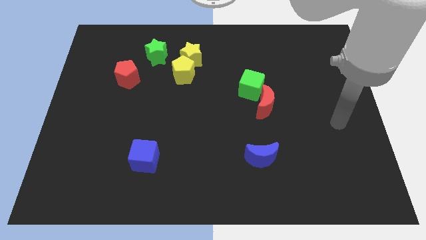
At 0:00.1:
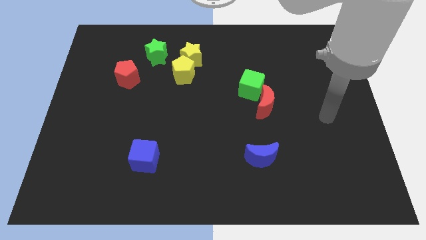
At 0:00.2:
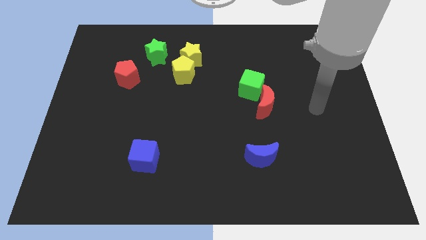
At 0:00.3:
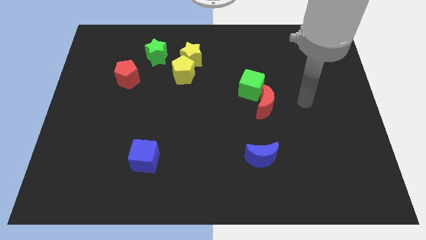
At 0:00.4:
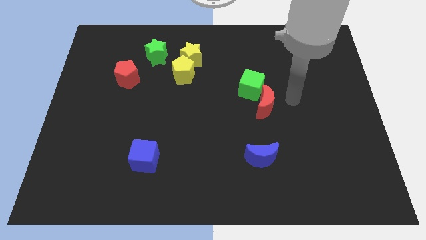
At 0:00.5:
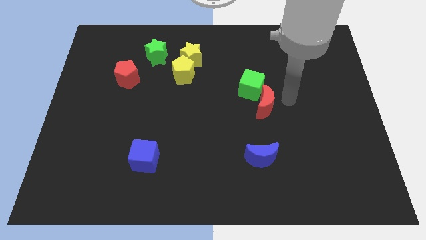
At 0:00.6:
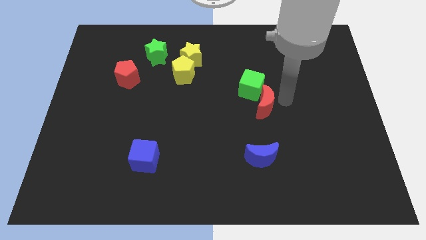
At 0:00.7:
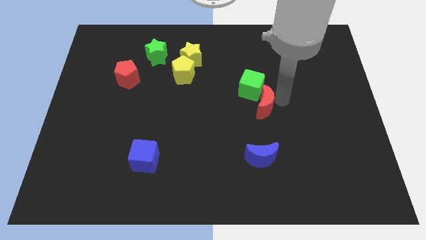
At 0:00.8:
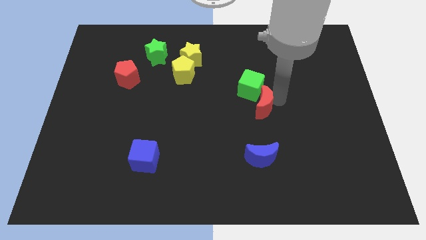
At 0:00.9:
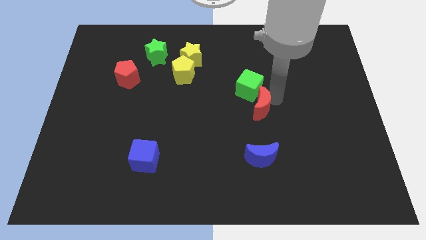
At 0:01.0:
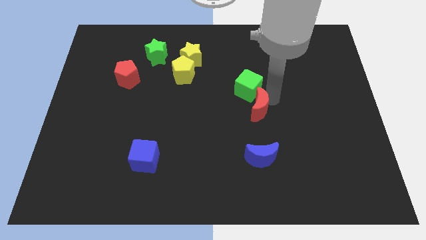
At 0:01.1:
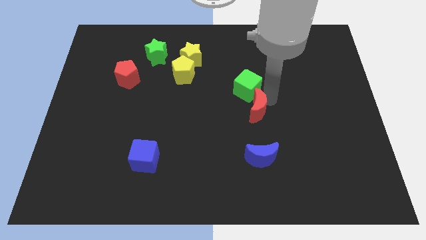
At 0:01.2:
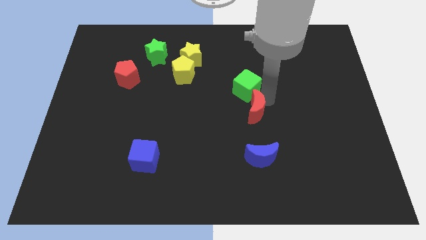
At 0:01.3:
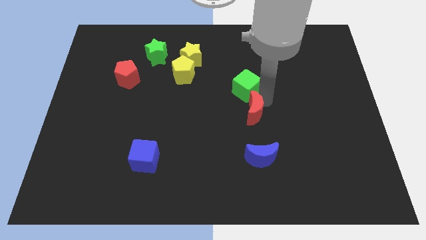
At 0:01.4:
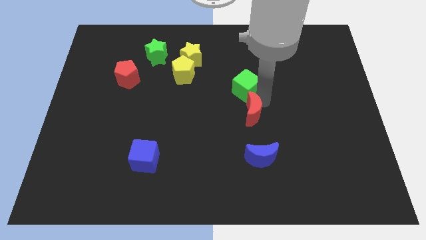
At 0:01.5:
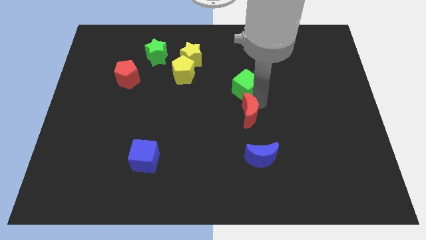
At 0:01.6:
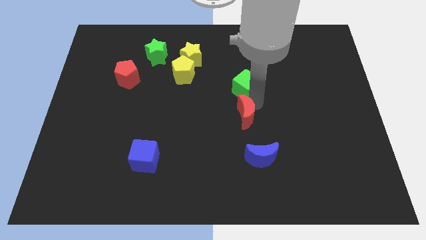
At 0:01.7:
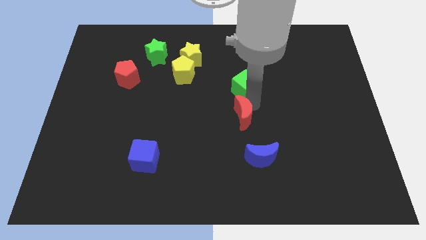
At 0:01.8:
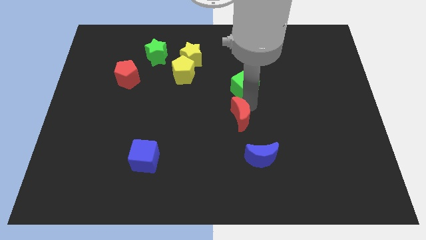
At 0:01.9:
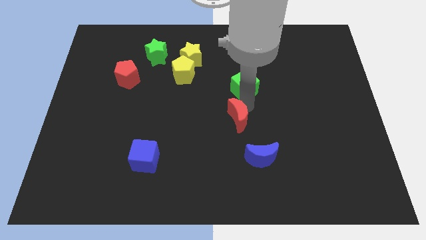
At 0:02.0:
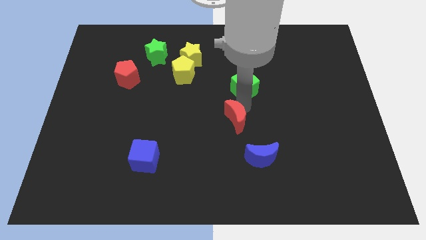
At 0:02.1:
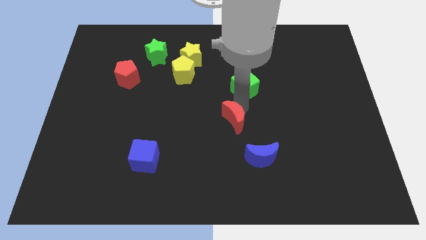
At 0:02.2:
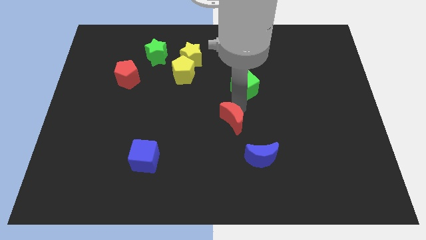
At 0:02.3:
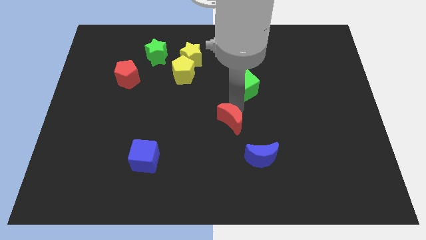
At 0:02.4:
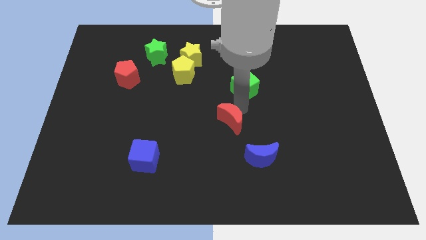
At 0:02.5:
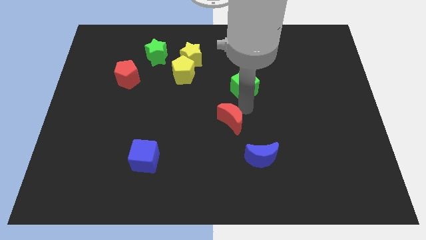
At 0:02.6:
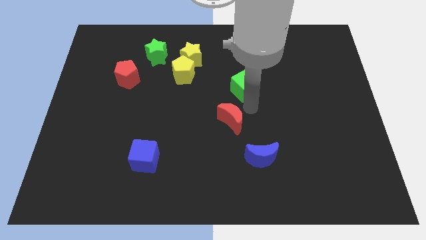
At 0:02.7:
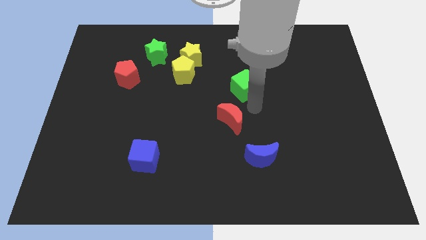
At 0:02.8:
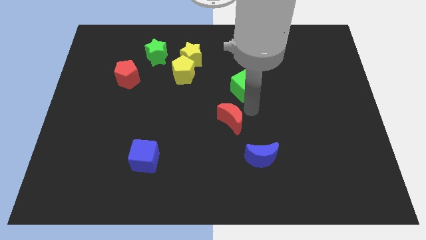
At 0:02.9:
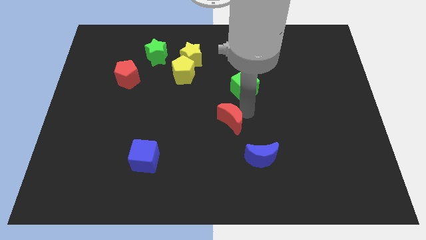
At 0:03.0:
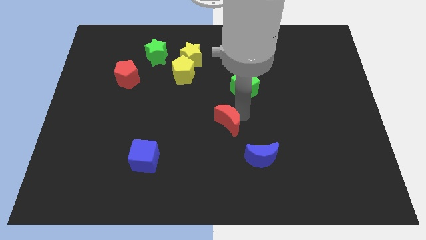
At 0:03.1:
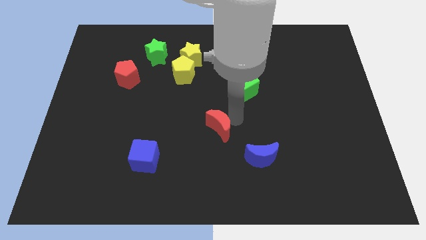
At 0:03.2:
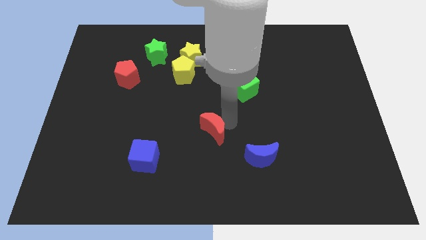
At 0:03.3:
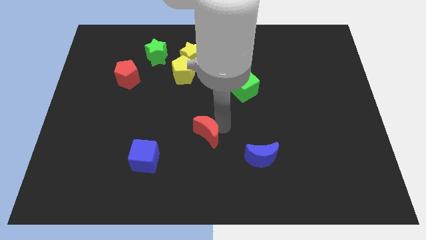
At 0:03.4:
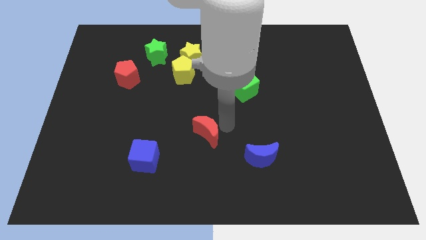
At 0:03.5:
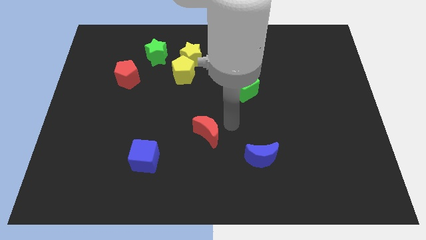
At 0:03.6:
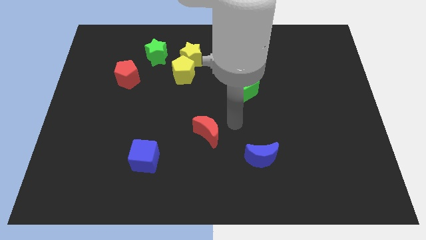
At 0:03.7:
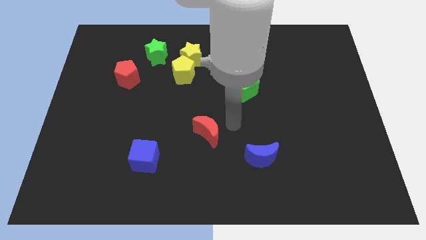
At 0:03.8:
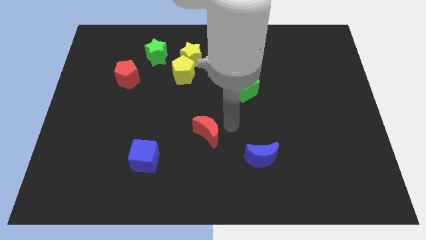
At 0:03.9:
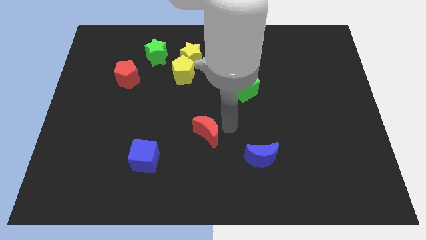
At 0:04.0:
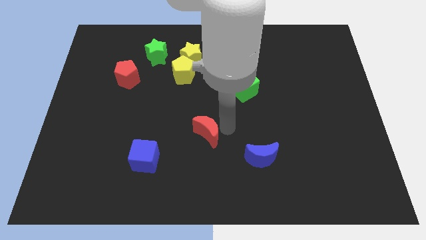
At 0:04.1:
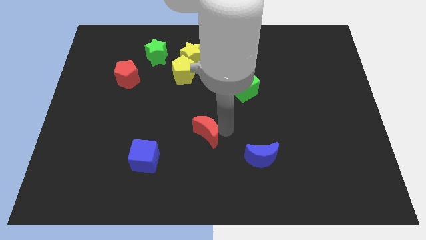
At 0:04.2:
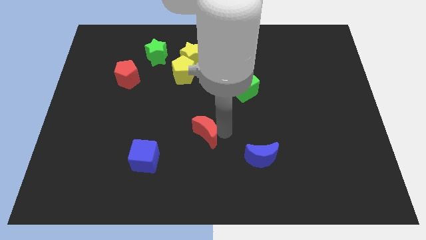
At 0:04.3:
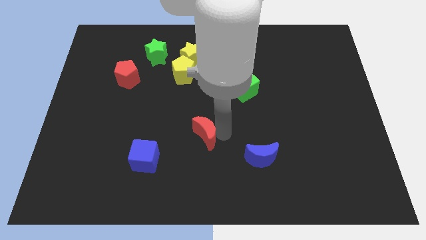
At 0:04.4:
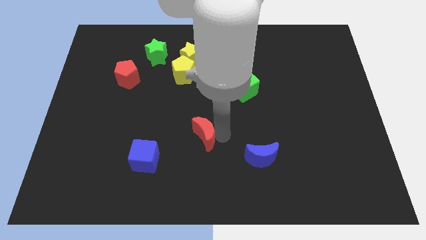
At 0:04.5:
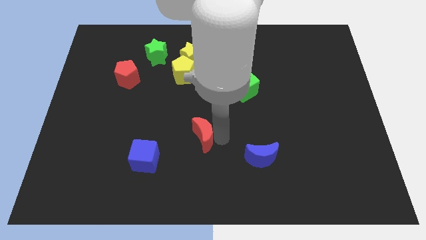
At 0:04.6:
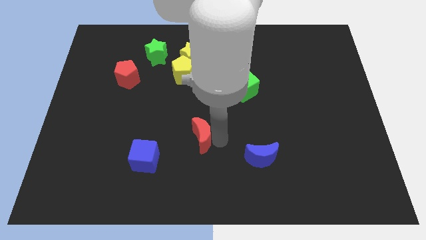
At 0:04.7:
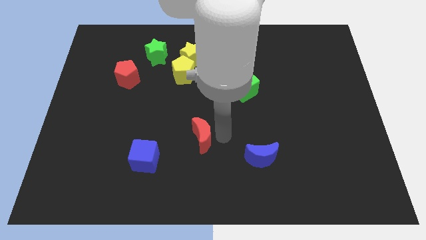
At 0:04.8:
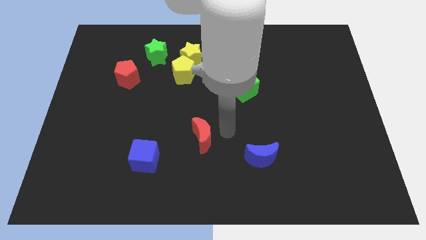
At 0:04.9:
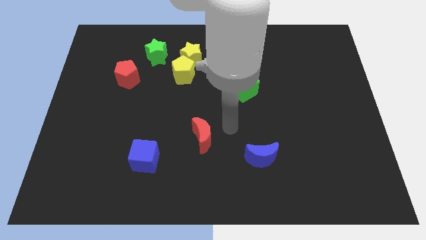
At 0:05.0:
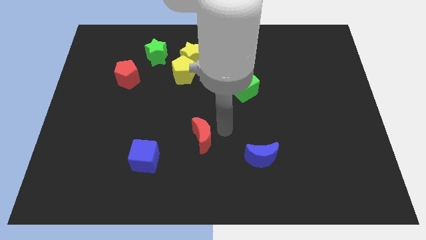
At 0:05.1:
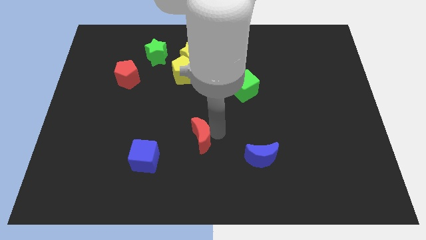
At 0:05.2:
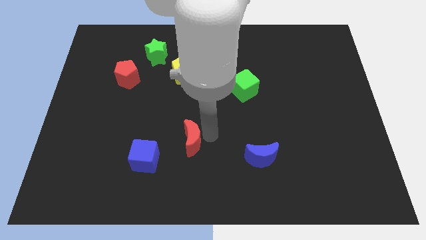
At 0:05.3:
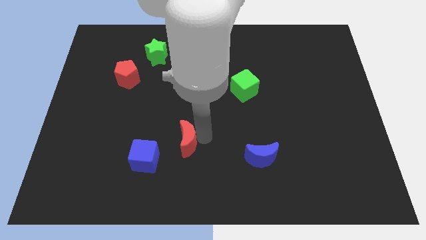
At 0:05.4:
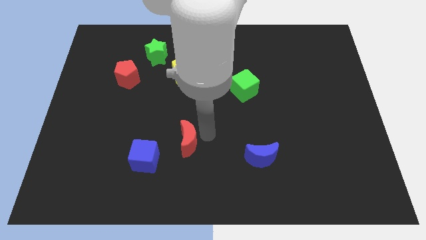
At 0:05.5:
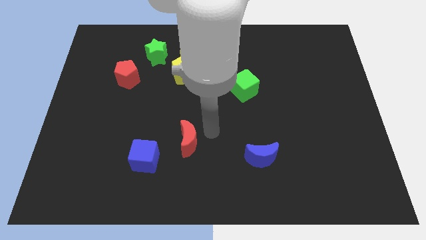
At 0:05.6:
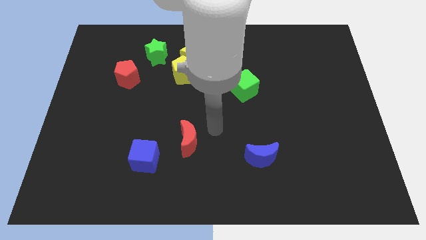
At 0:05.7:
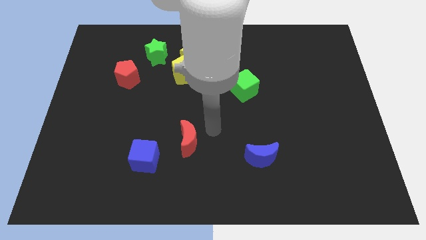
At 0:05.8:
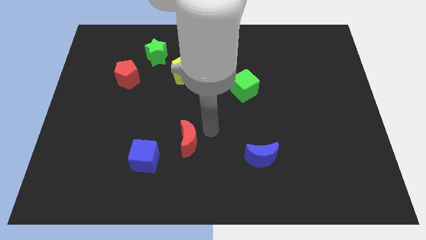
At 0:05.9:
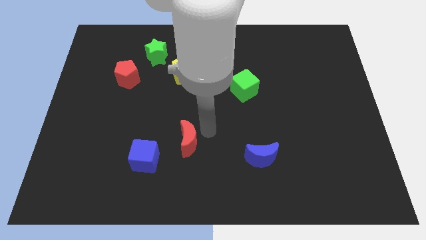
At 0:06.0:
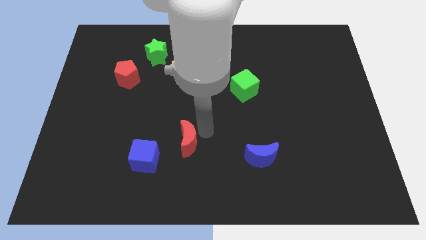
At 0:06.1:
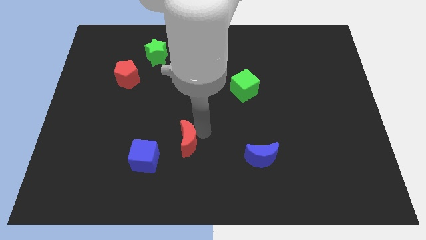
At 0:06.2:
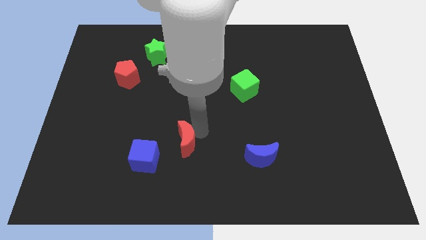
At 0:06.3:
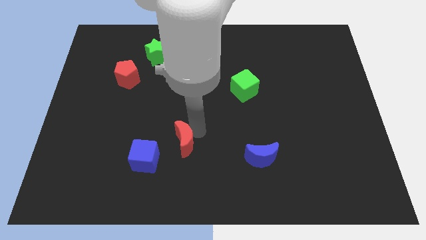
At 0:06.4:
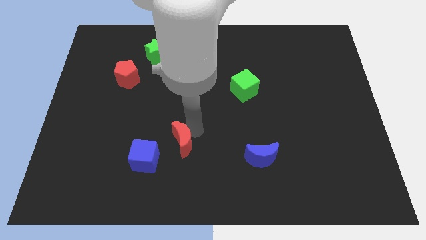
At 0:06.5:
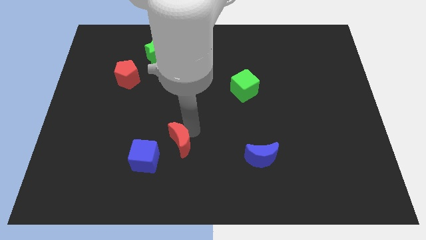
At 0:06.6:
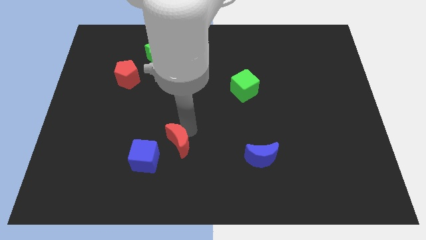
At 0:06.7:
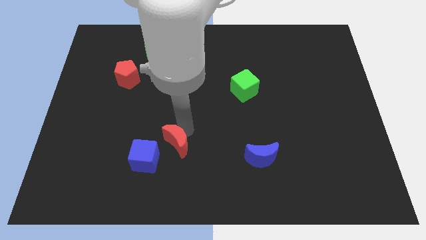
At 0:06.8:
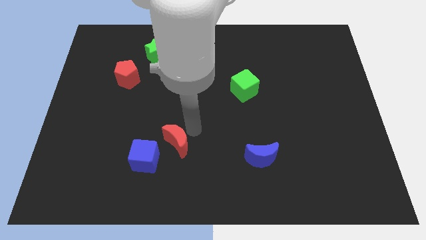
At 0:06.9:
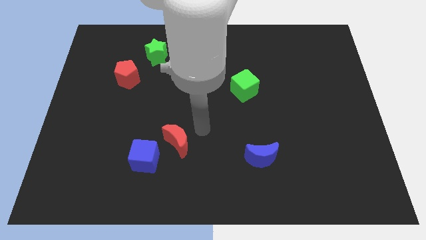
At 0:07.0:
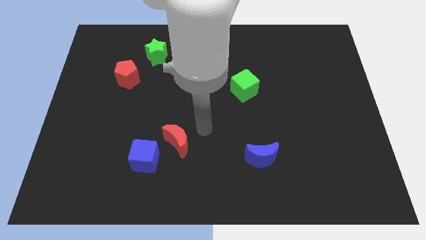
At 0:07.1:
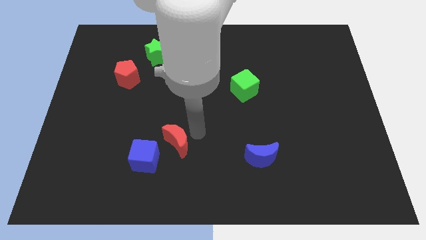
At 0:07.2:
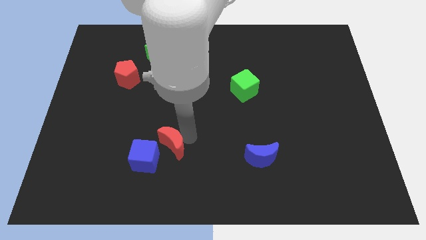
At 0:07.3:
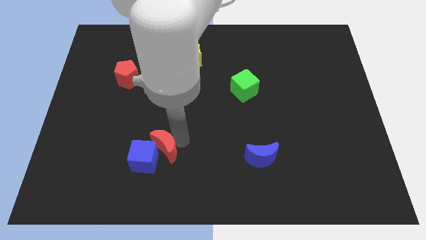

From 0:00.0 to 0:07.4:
slide the red moon towards the blue cube
